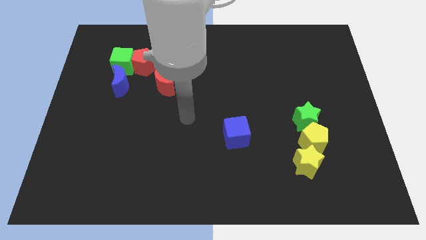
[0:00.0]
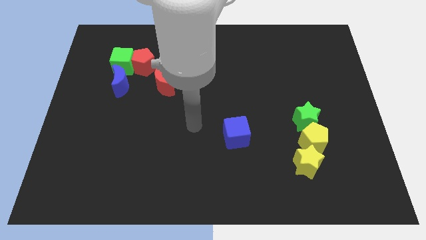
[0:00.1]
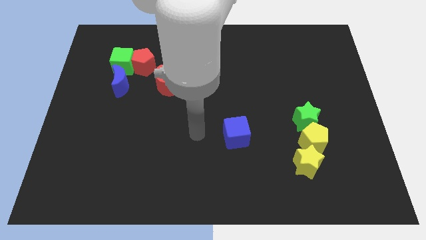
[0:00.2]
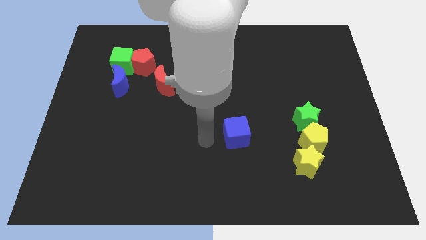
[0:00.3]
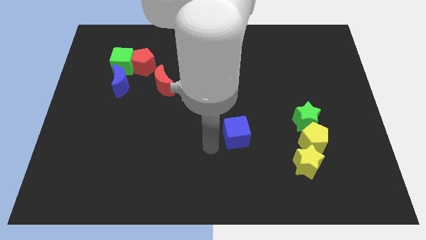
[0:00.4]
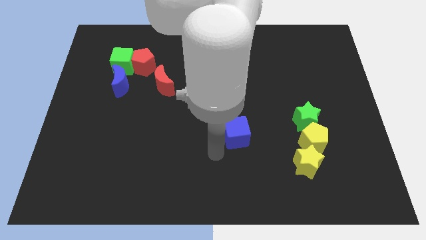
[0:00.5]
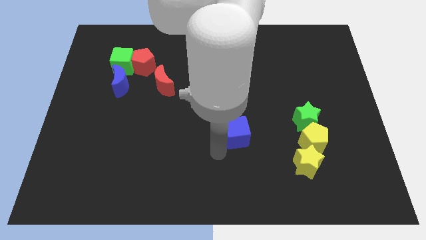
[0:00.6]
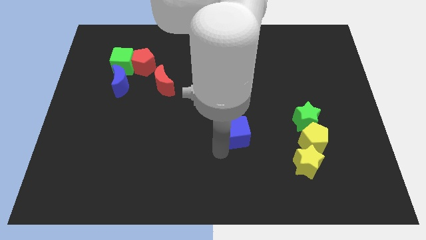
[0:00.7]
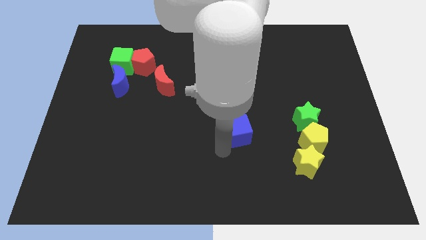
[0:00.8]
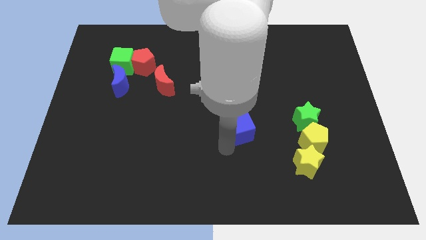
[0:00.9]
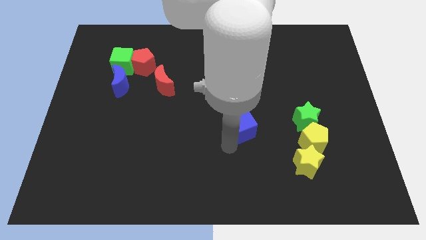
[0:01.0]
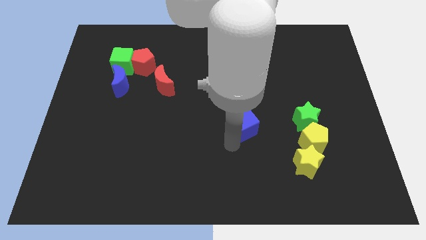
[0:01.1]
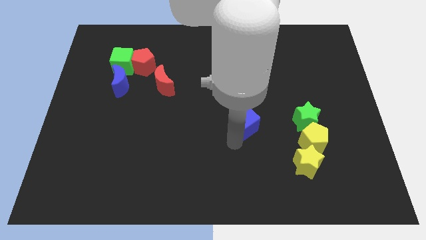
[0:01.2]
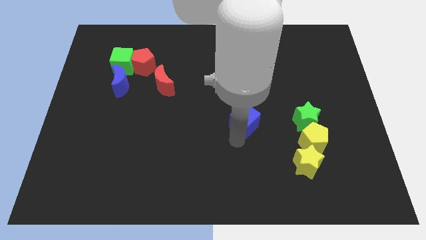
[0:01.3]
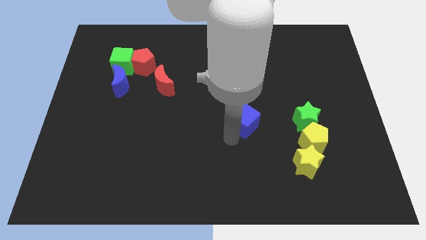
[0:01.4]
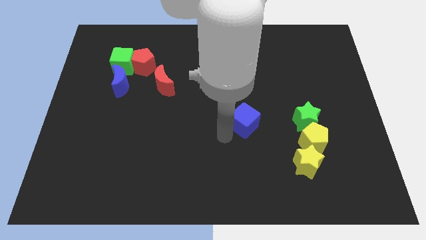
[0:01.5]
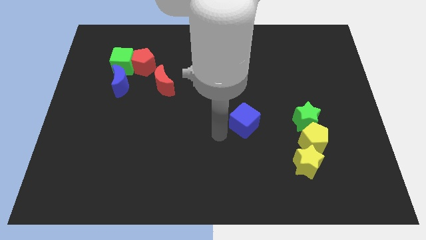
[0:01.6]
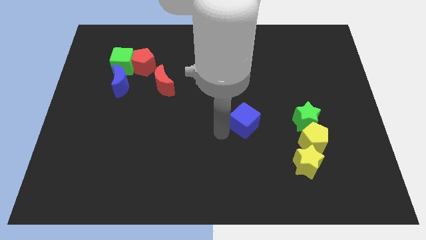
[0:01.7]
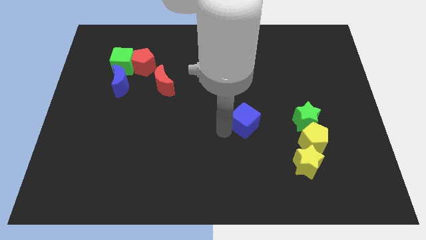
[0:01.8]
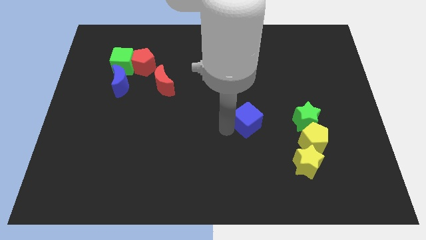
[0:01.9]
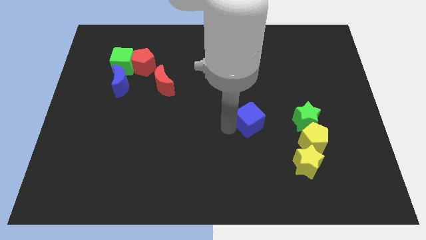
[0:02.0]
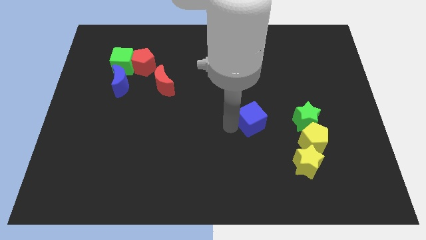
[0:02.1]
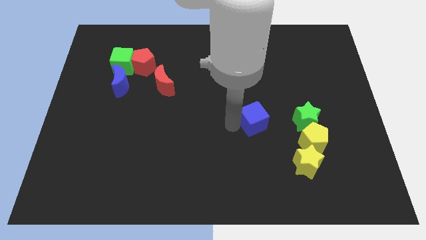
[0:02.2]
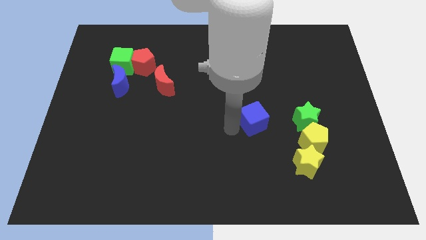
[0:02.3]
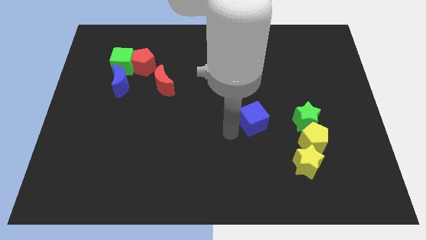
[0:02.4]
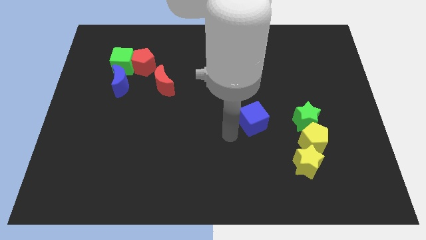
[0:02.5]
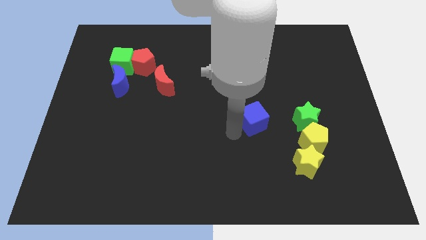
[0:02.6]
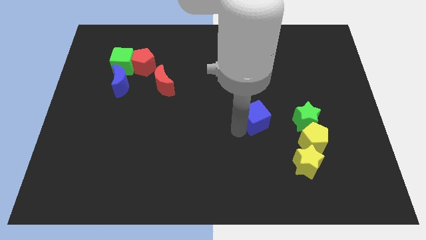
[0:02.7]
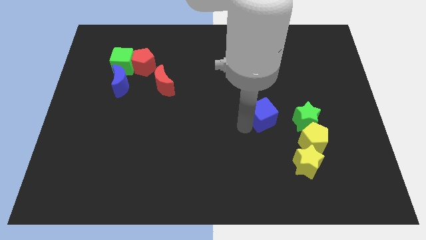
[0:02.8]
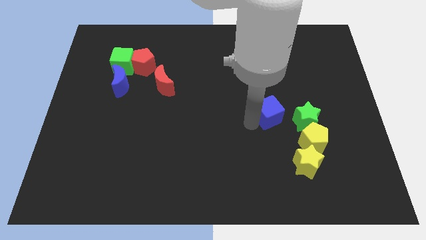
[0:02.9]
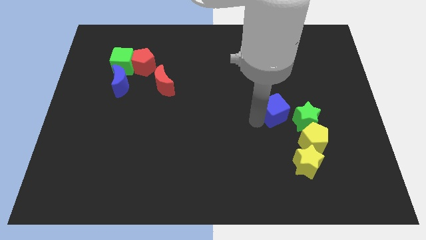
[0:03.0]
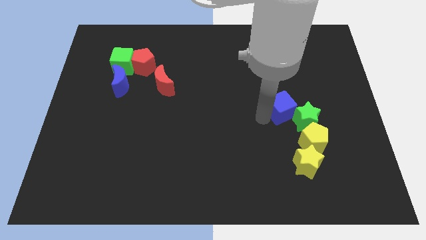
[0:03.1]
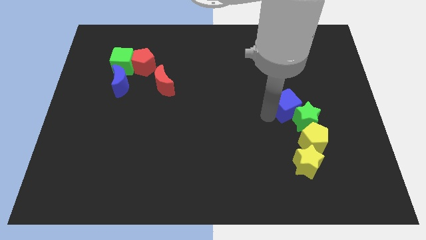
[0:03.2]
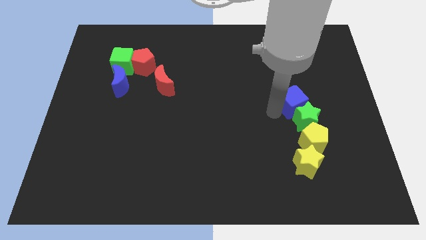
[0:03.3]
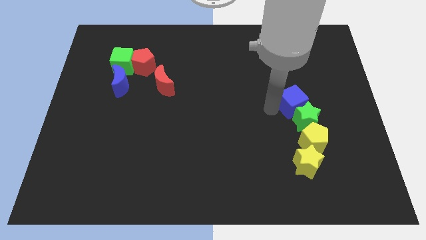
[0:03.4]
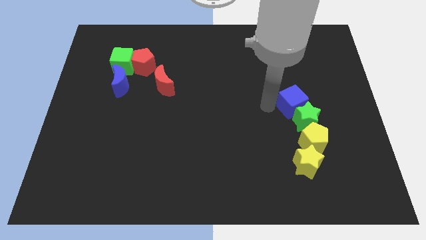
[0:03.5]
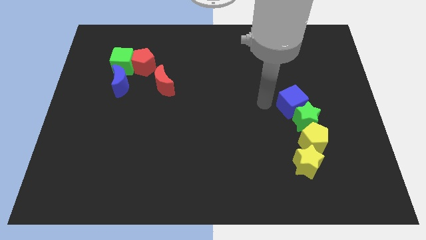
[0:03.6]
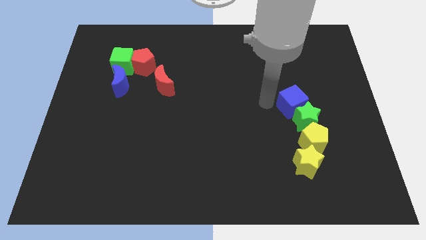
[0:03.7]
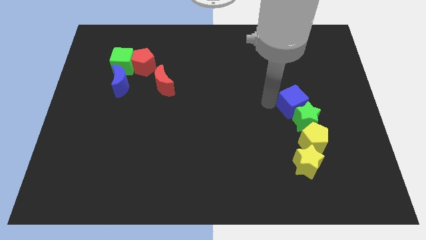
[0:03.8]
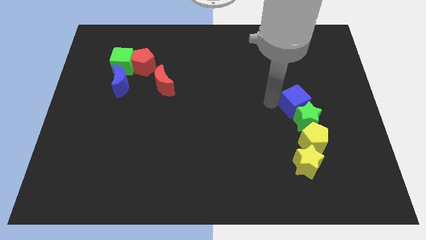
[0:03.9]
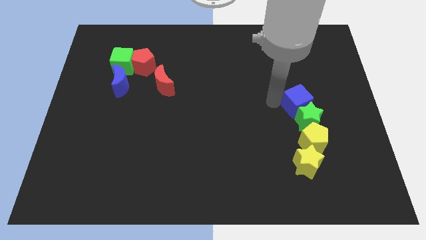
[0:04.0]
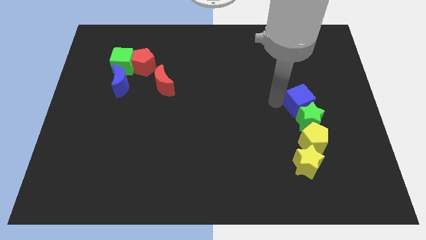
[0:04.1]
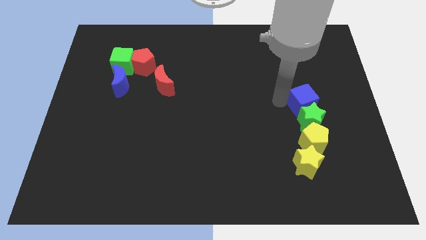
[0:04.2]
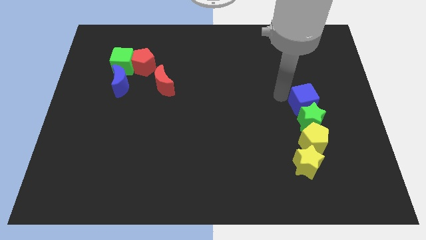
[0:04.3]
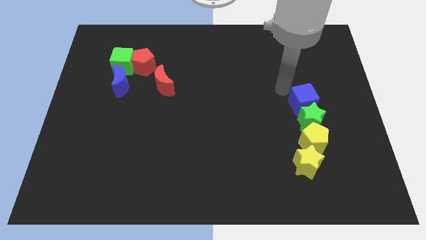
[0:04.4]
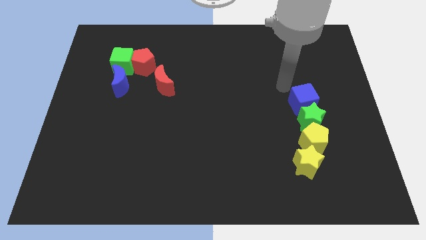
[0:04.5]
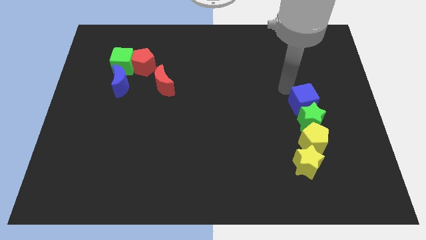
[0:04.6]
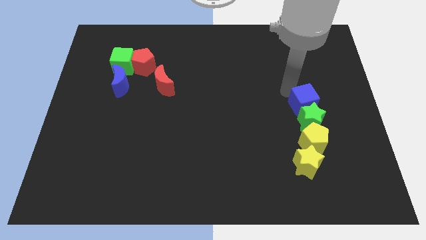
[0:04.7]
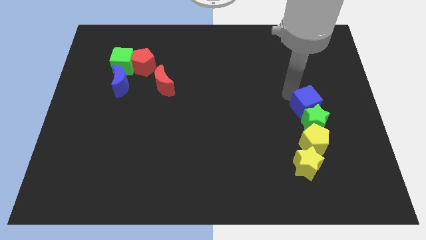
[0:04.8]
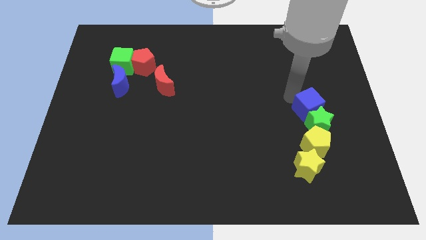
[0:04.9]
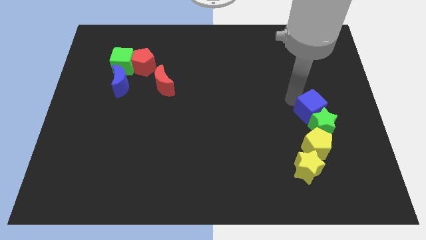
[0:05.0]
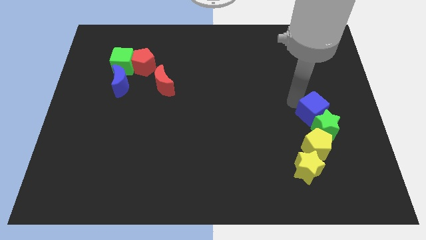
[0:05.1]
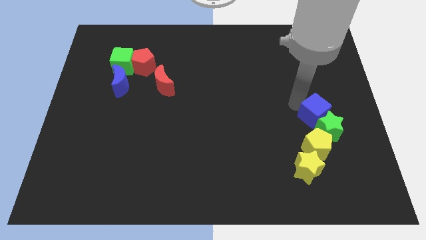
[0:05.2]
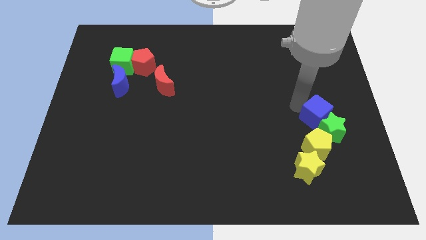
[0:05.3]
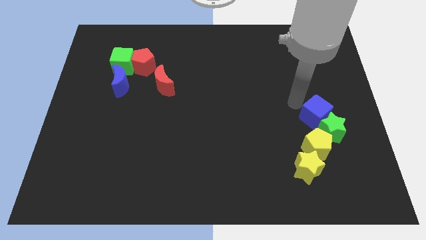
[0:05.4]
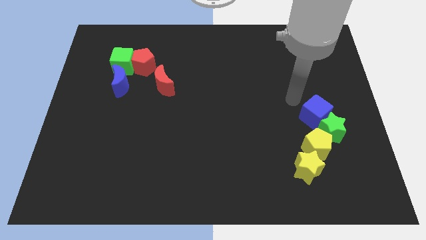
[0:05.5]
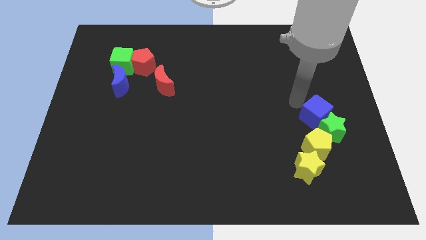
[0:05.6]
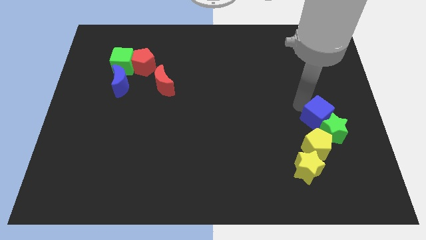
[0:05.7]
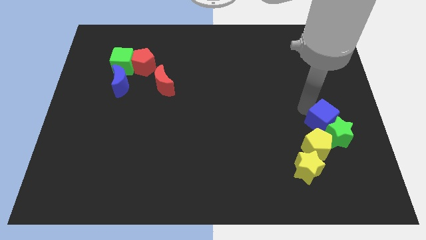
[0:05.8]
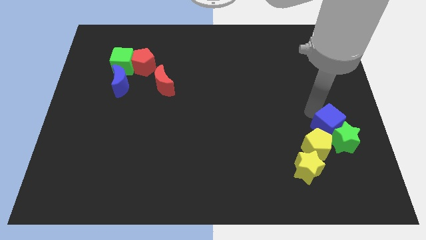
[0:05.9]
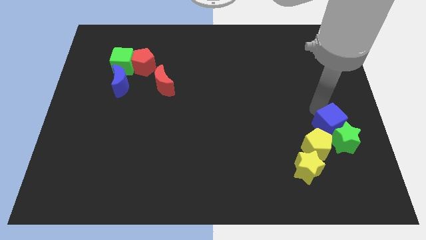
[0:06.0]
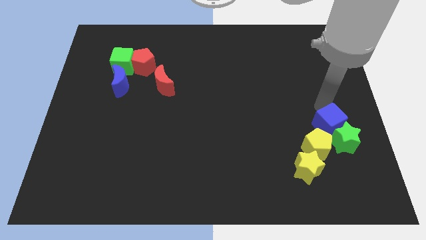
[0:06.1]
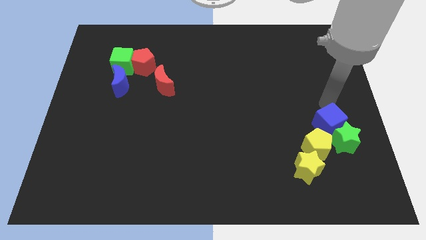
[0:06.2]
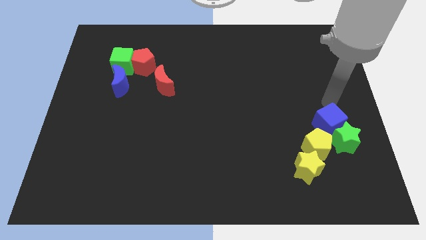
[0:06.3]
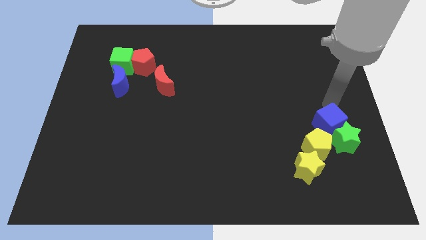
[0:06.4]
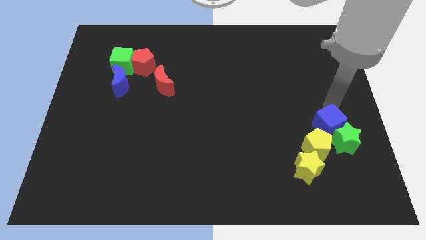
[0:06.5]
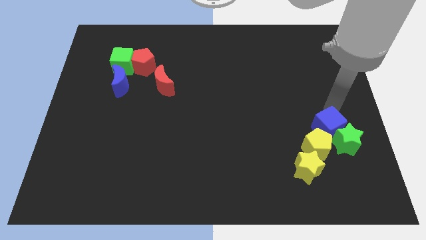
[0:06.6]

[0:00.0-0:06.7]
push the blue cube to the top right side of the yellow star
